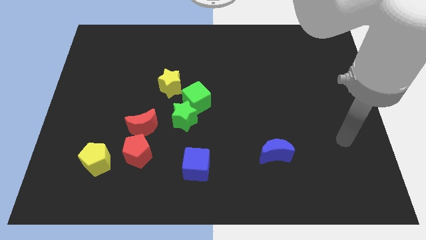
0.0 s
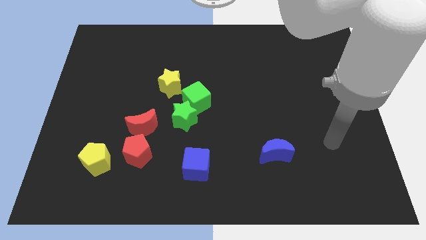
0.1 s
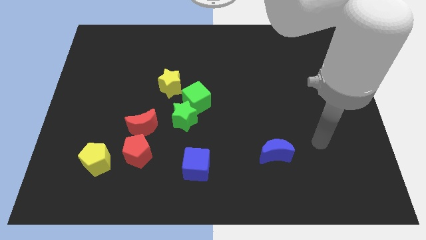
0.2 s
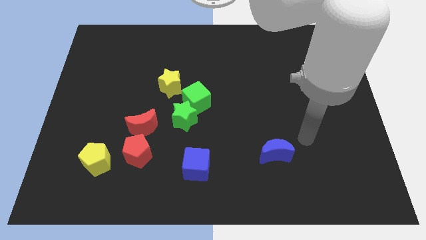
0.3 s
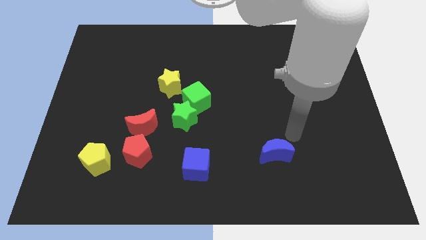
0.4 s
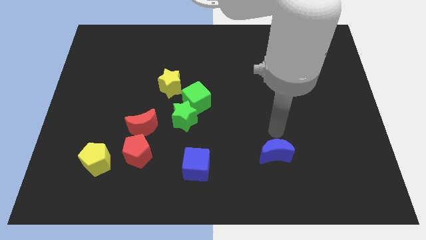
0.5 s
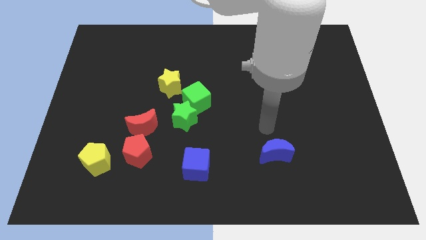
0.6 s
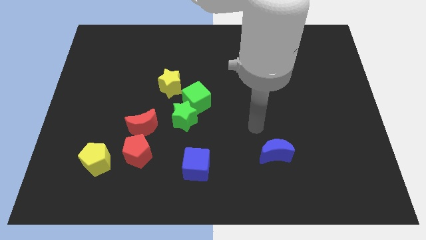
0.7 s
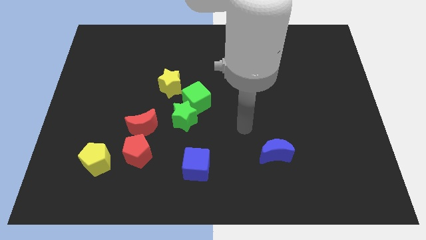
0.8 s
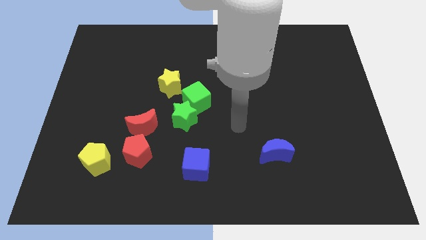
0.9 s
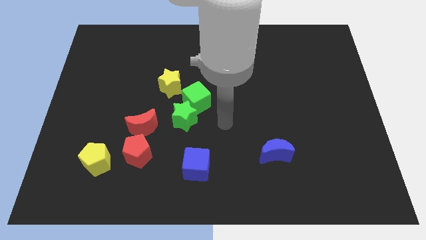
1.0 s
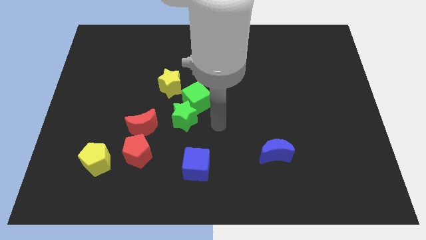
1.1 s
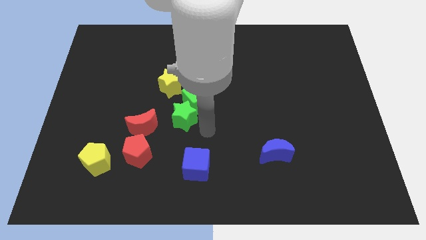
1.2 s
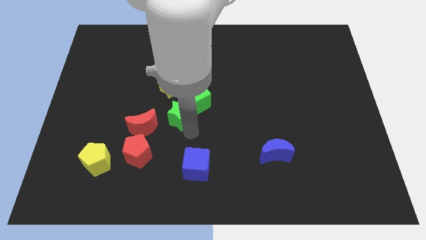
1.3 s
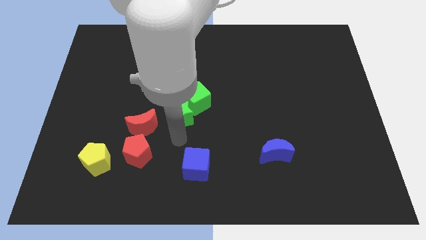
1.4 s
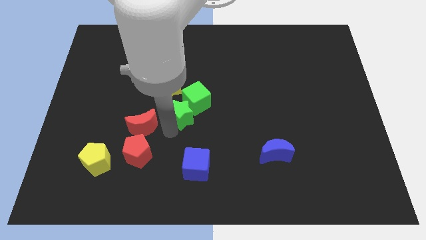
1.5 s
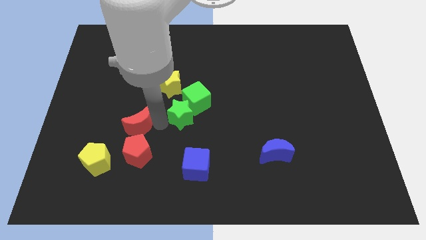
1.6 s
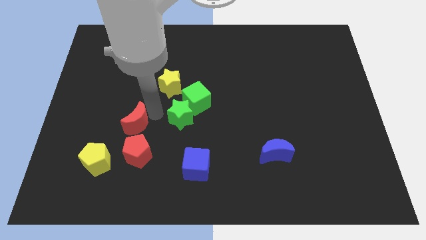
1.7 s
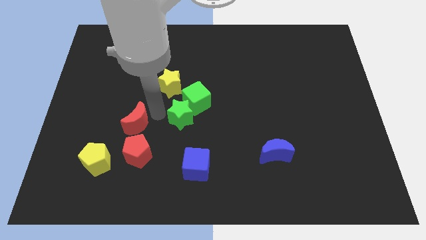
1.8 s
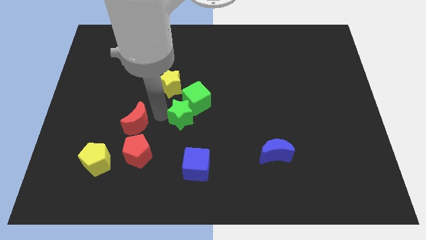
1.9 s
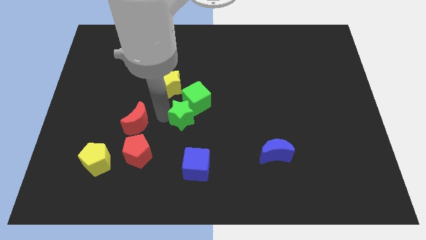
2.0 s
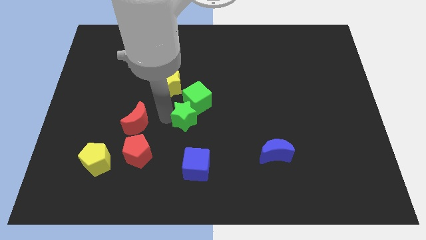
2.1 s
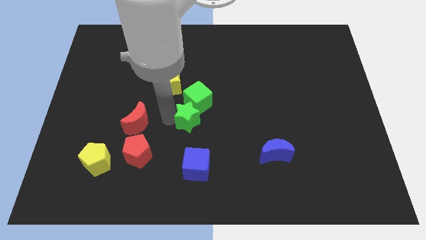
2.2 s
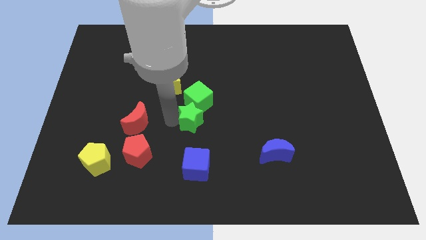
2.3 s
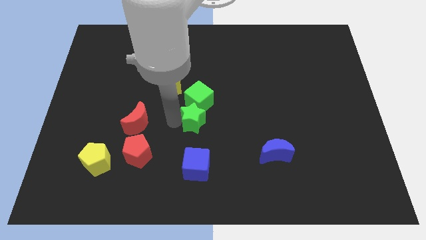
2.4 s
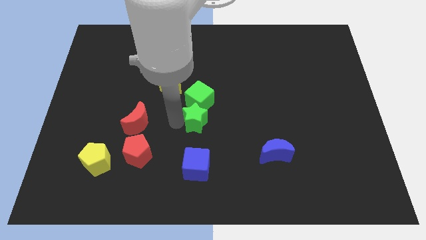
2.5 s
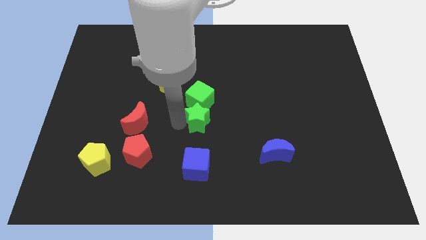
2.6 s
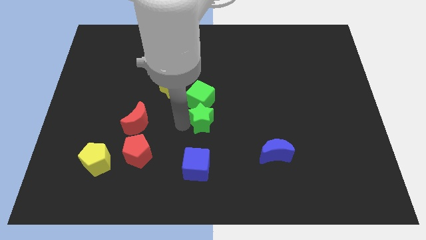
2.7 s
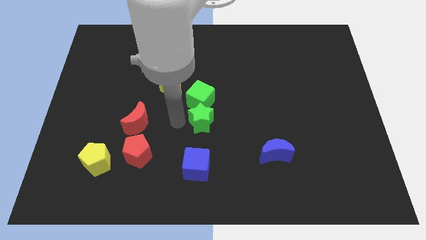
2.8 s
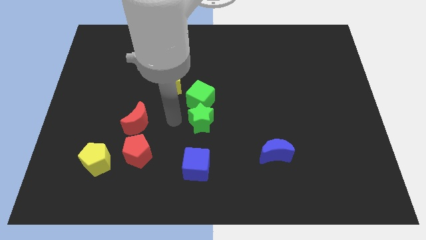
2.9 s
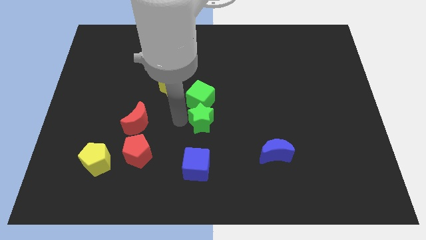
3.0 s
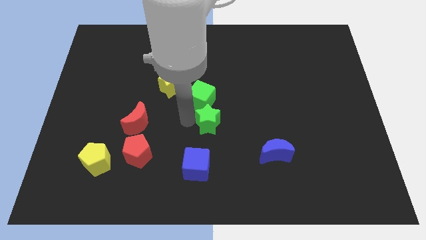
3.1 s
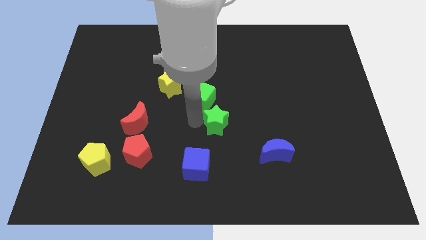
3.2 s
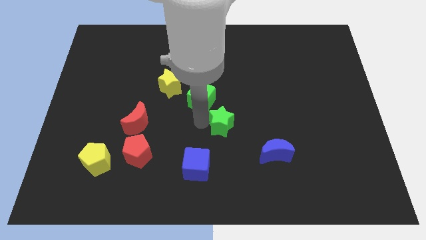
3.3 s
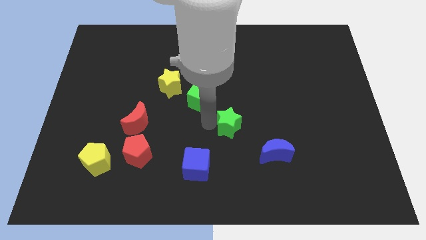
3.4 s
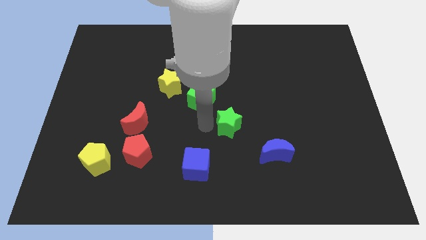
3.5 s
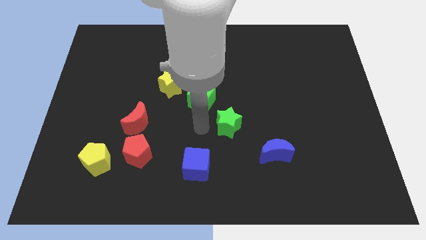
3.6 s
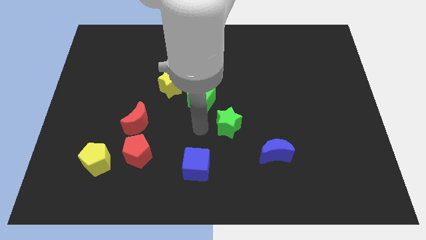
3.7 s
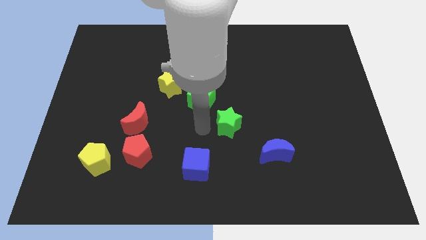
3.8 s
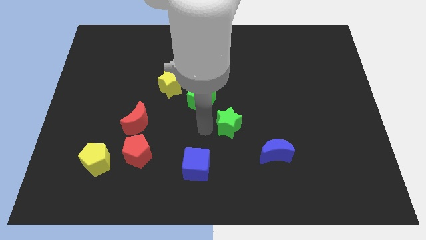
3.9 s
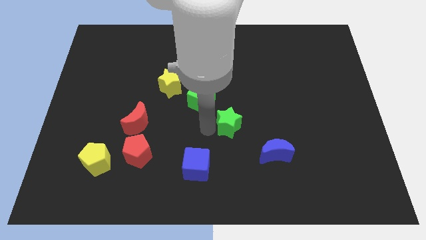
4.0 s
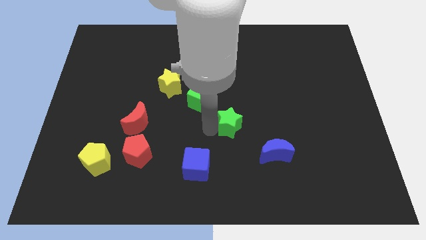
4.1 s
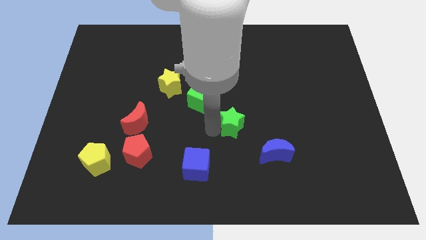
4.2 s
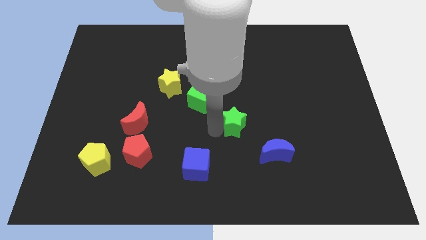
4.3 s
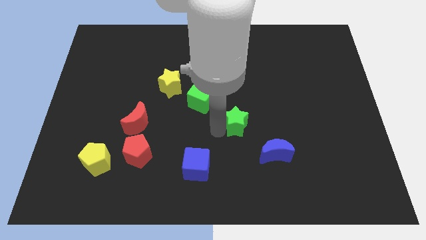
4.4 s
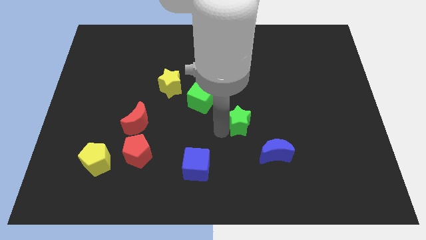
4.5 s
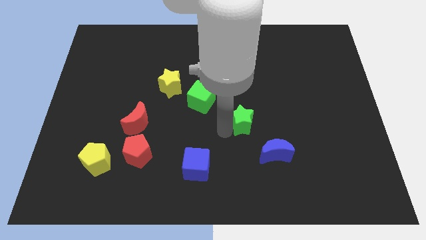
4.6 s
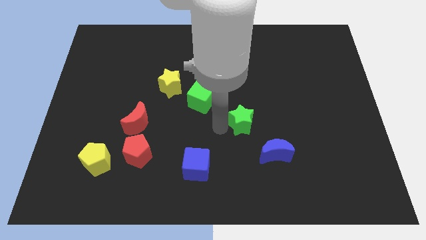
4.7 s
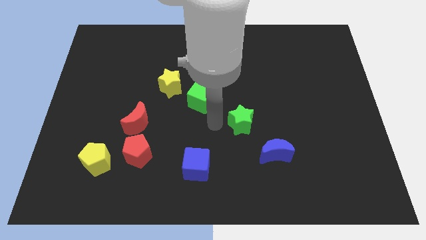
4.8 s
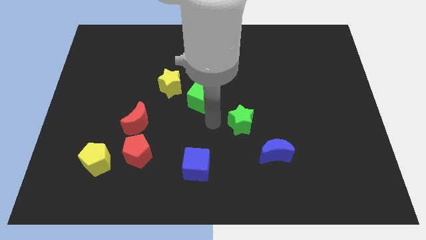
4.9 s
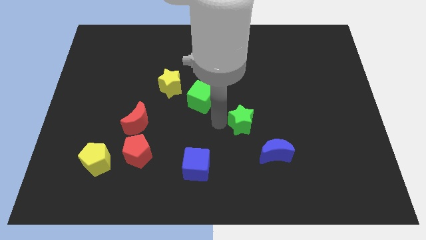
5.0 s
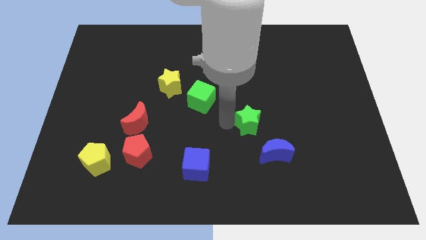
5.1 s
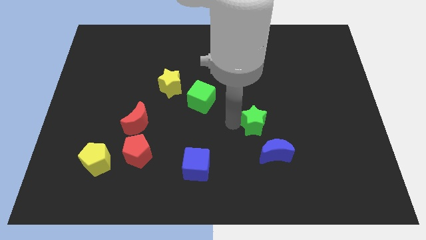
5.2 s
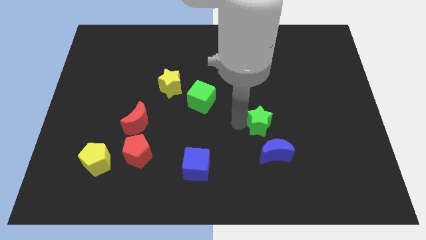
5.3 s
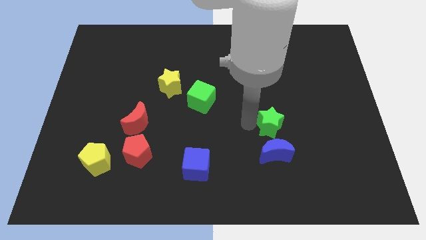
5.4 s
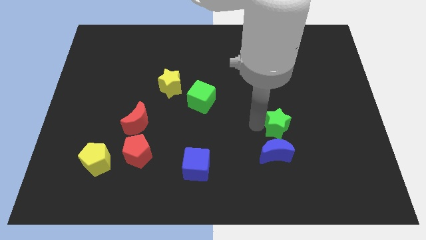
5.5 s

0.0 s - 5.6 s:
slide the green star to the right

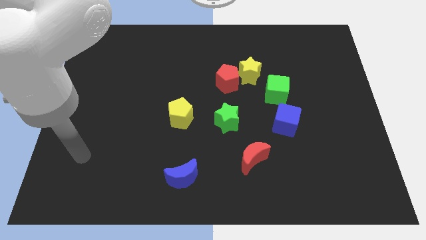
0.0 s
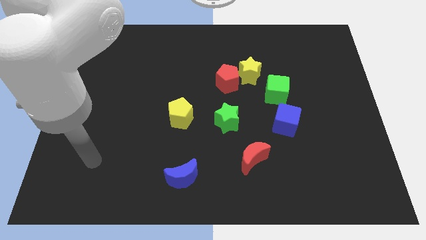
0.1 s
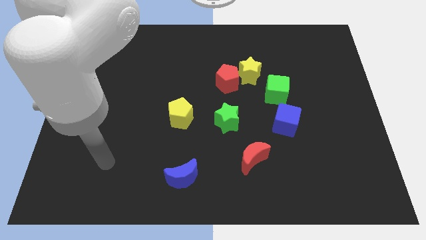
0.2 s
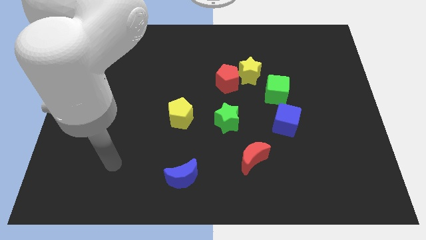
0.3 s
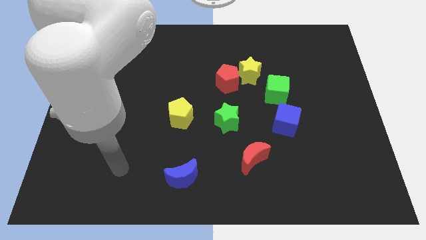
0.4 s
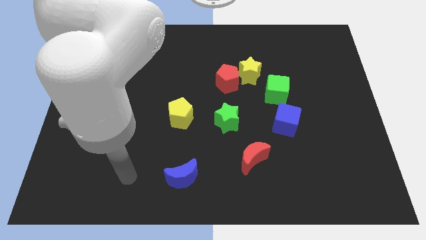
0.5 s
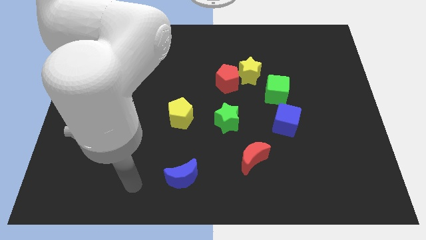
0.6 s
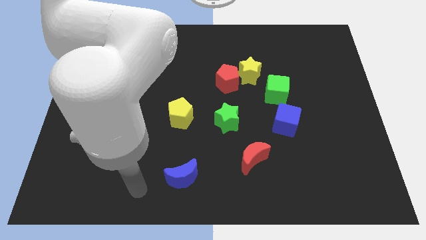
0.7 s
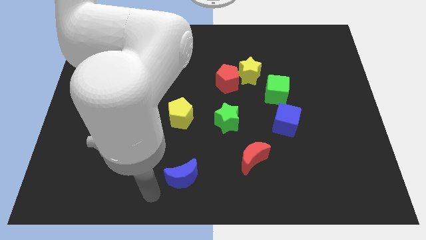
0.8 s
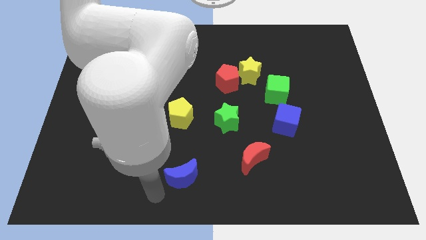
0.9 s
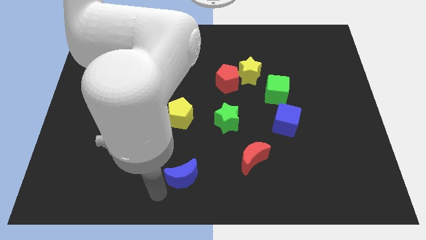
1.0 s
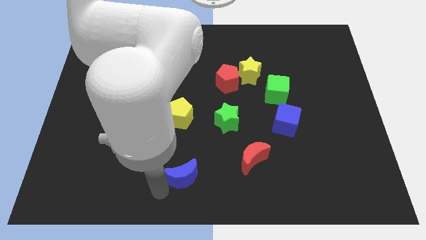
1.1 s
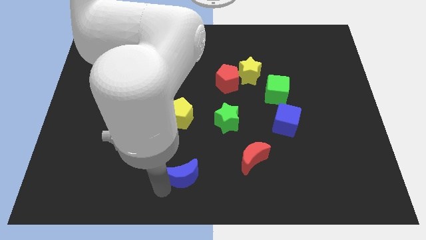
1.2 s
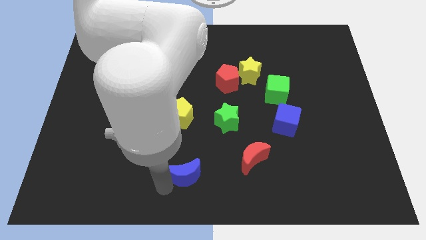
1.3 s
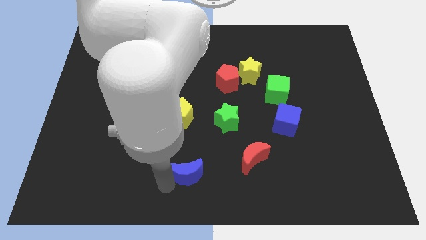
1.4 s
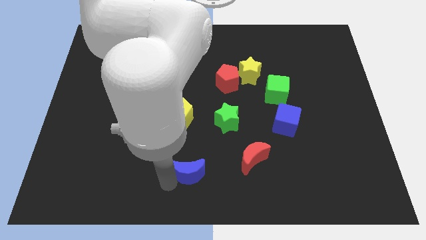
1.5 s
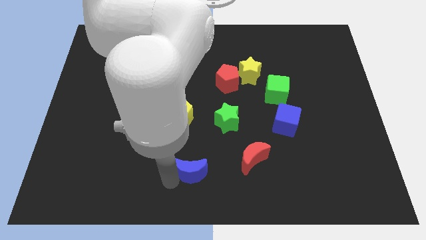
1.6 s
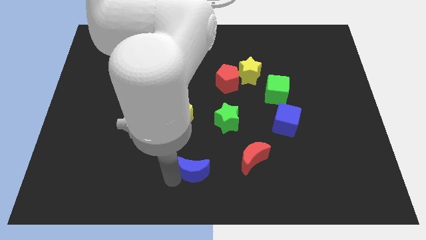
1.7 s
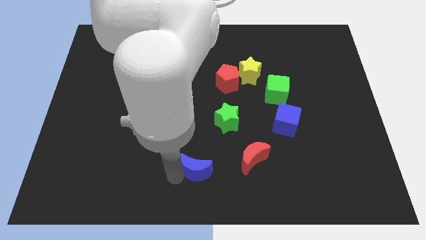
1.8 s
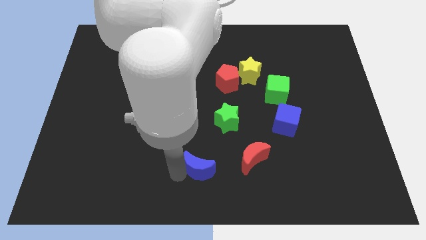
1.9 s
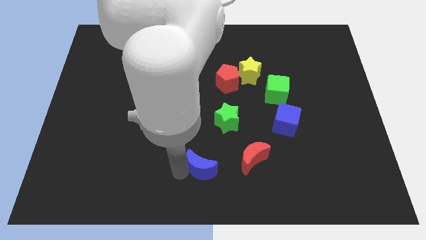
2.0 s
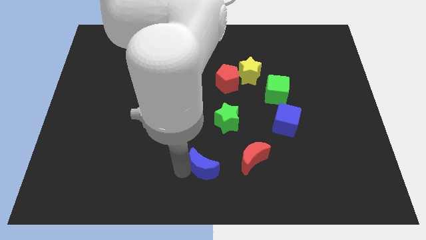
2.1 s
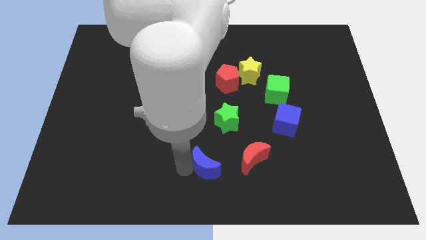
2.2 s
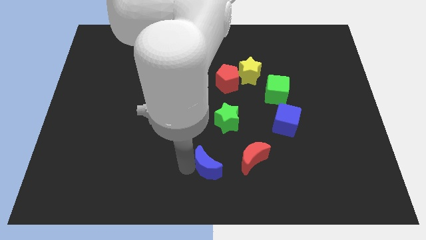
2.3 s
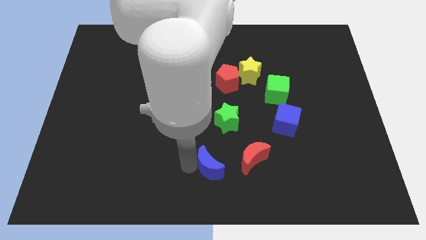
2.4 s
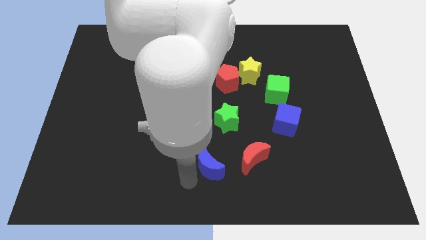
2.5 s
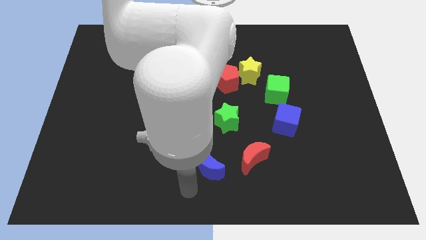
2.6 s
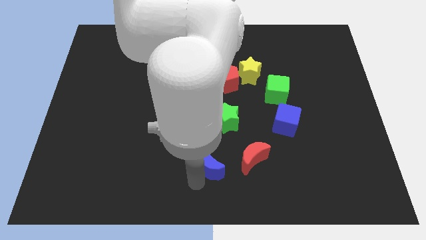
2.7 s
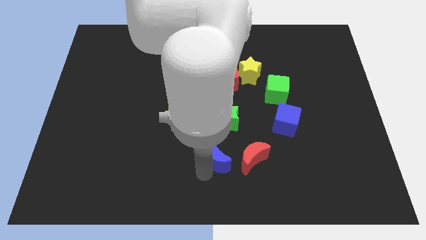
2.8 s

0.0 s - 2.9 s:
move the blue moon upwards and right a little

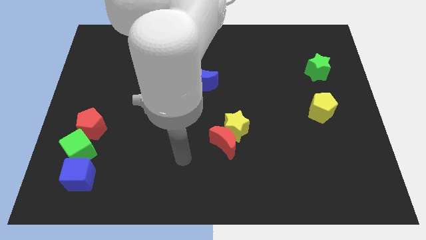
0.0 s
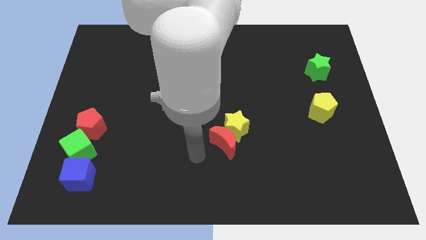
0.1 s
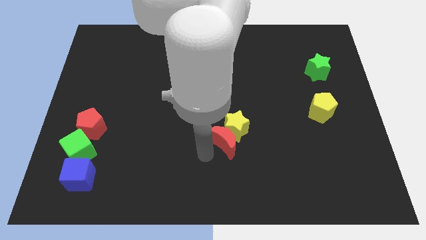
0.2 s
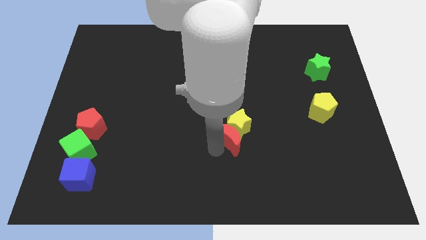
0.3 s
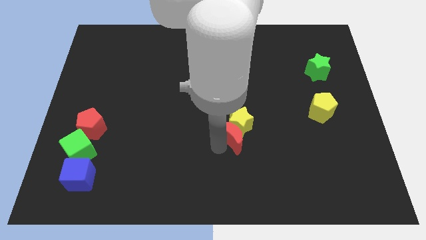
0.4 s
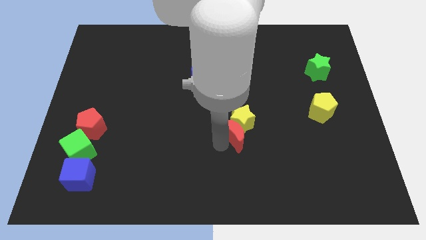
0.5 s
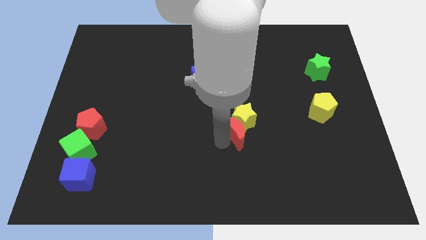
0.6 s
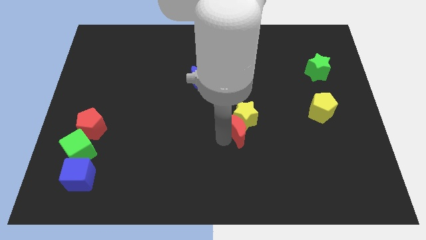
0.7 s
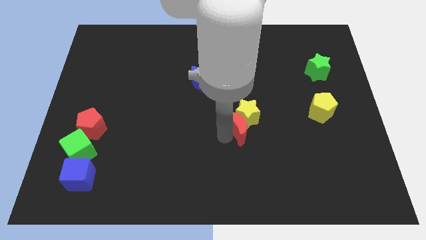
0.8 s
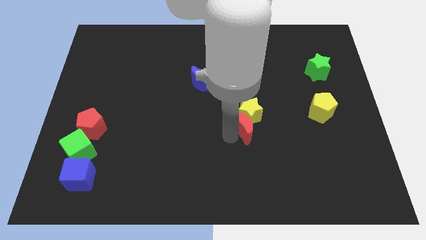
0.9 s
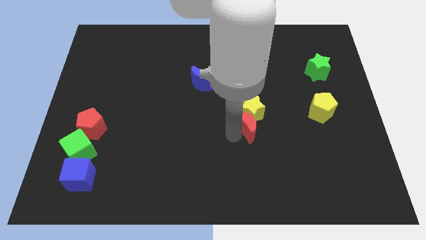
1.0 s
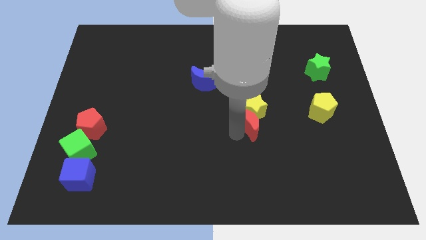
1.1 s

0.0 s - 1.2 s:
slightly slide the yellow star diagonally upwards and to the right
